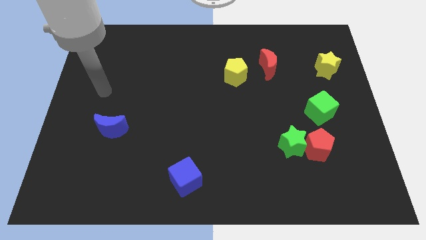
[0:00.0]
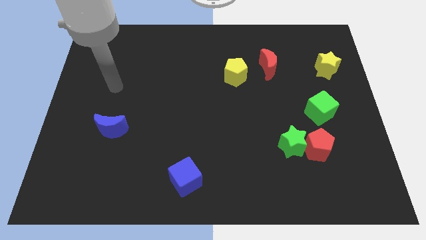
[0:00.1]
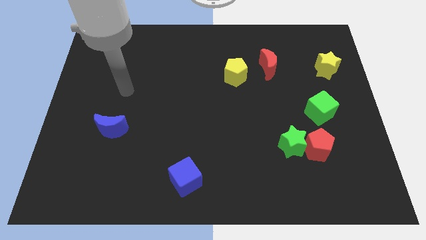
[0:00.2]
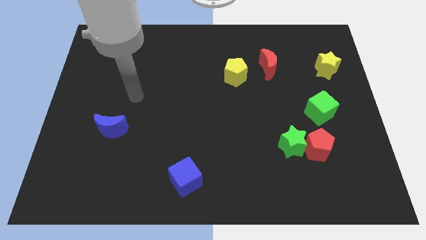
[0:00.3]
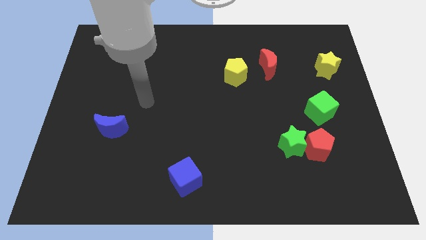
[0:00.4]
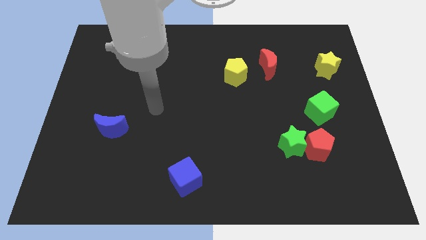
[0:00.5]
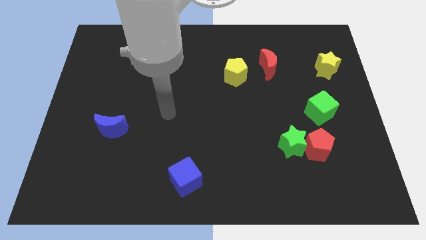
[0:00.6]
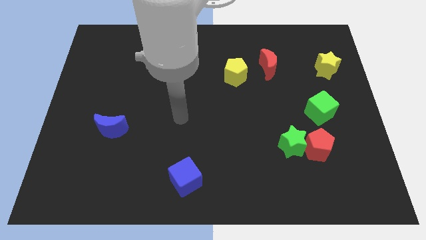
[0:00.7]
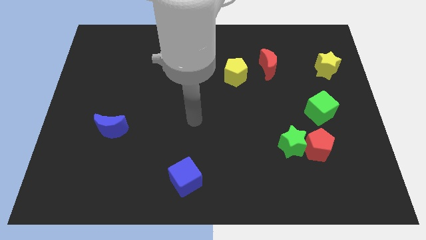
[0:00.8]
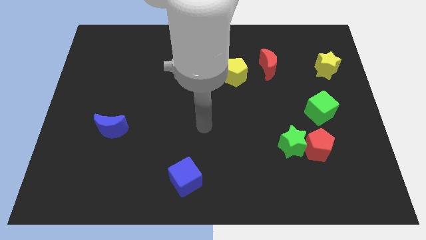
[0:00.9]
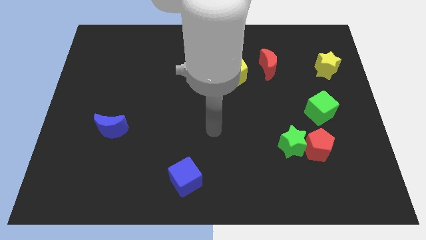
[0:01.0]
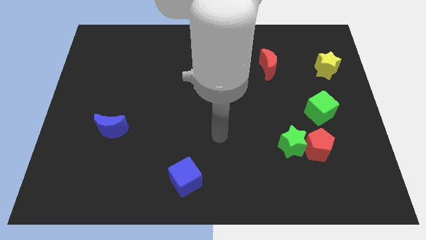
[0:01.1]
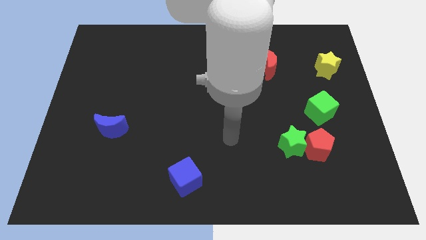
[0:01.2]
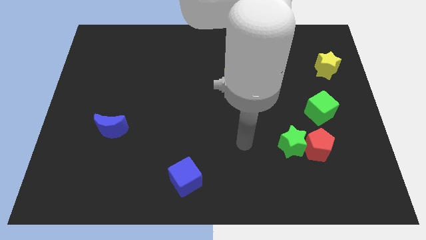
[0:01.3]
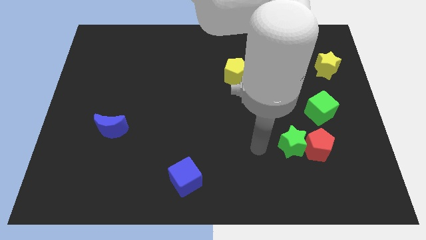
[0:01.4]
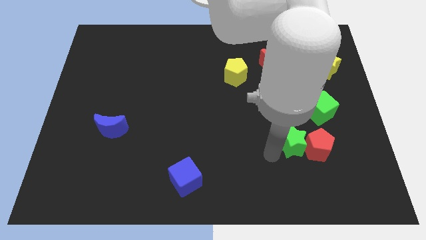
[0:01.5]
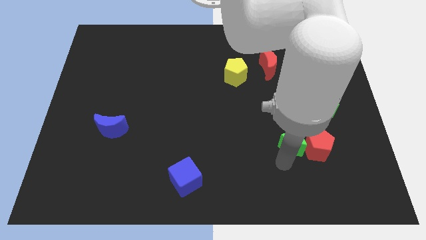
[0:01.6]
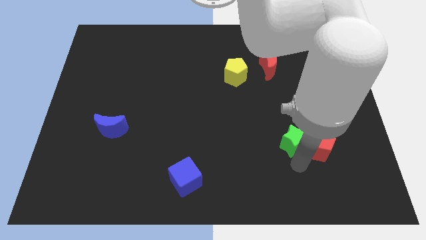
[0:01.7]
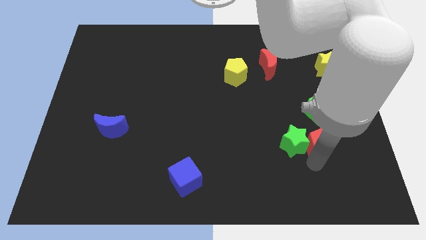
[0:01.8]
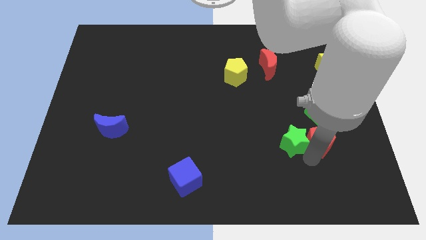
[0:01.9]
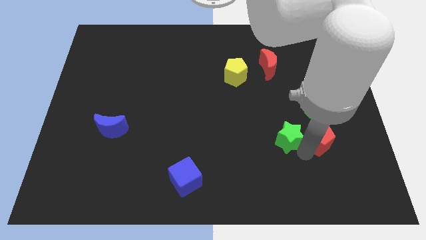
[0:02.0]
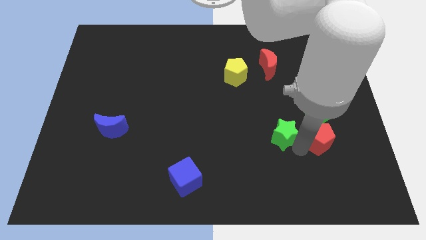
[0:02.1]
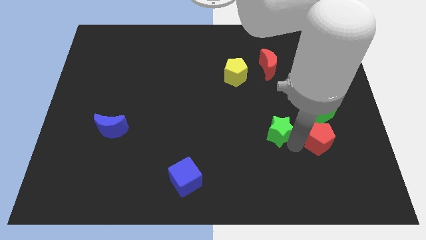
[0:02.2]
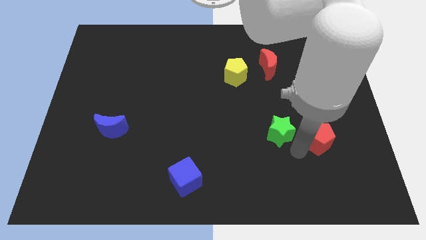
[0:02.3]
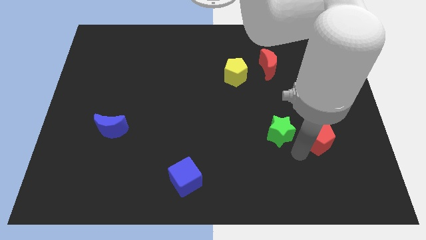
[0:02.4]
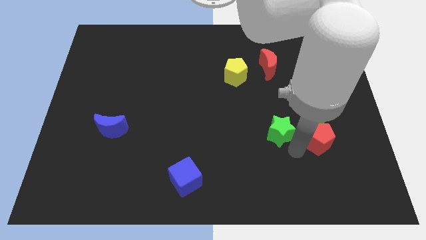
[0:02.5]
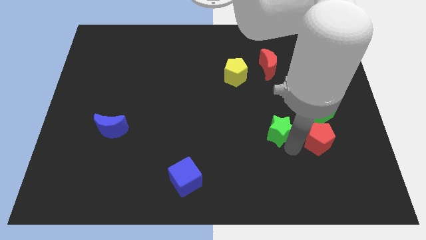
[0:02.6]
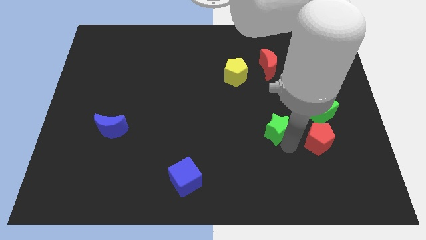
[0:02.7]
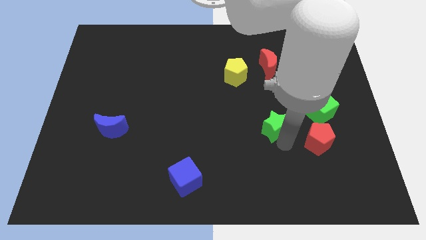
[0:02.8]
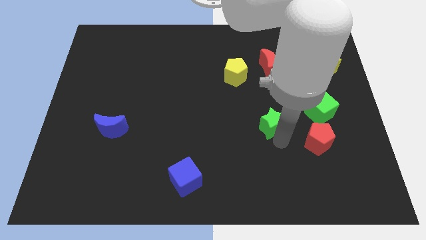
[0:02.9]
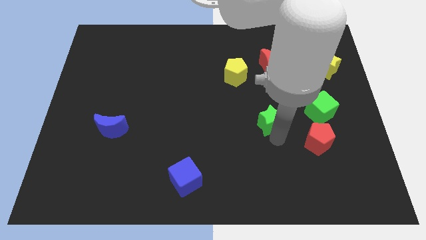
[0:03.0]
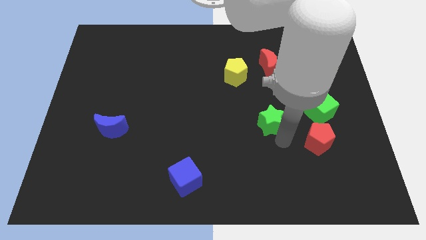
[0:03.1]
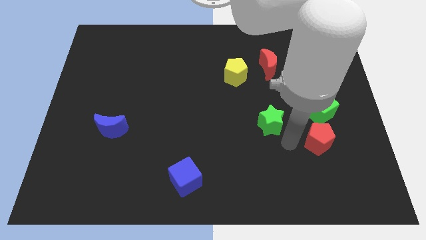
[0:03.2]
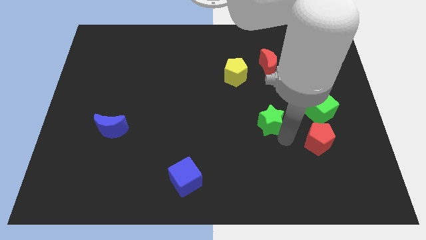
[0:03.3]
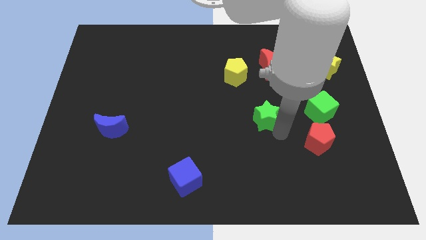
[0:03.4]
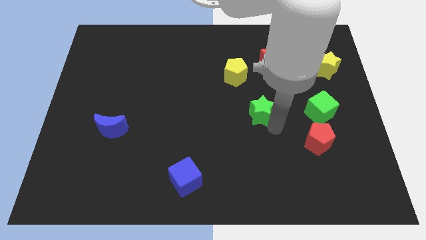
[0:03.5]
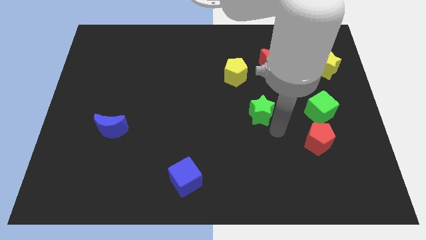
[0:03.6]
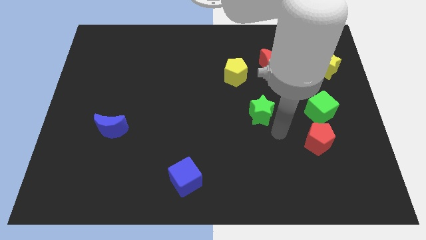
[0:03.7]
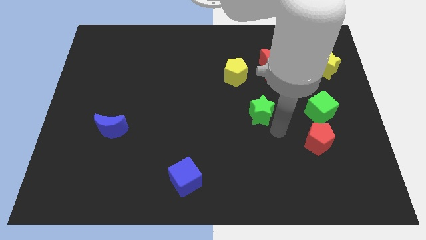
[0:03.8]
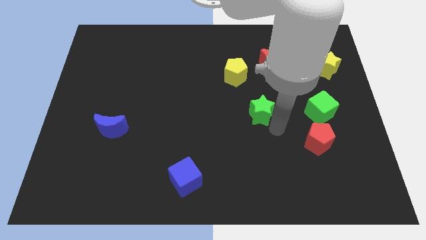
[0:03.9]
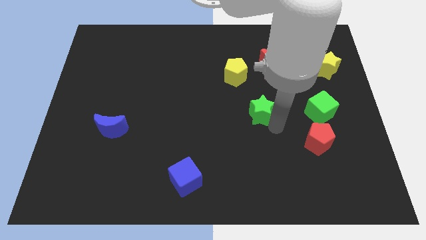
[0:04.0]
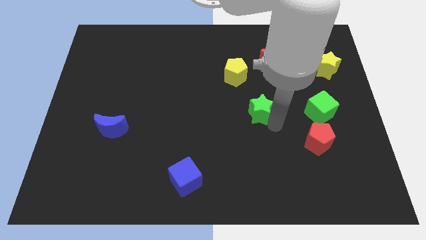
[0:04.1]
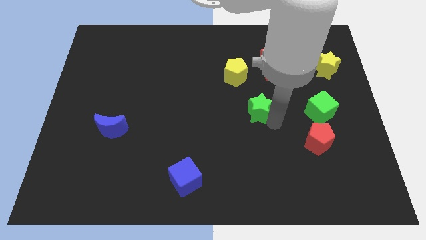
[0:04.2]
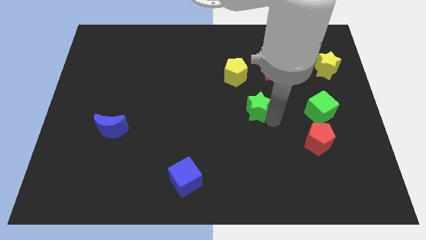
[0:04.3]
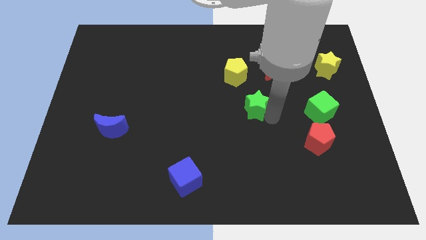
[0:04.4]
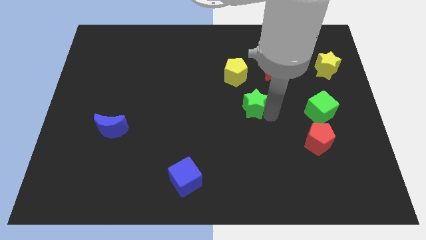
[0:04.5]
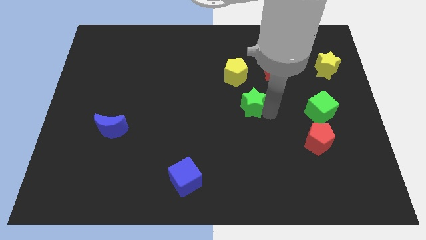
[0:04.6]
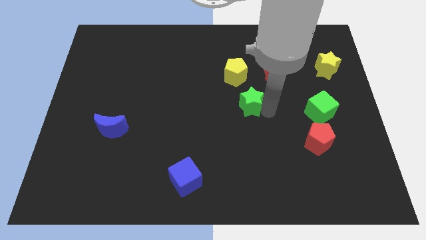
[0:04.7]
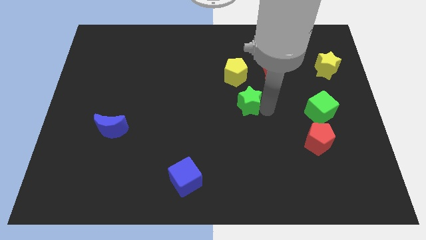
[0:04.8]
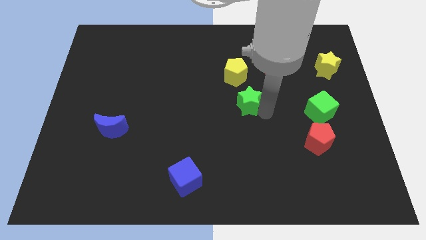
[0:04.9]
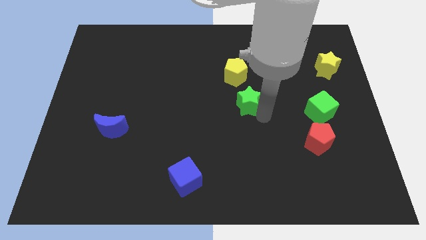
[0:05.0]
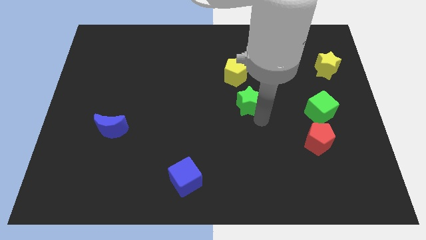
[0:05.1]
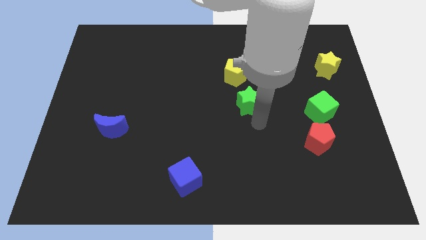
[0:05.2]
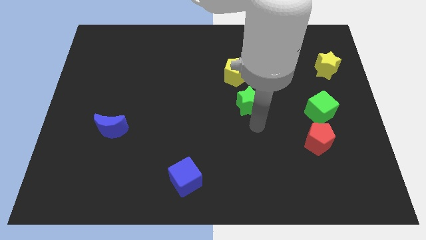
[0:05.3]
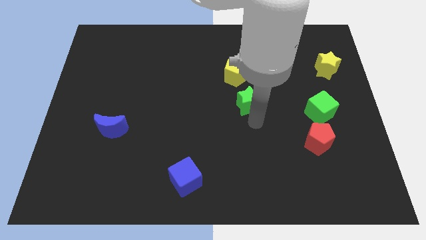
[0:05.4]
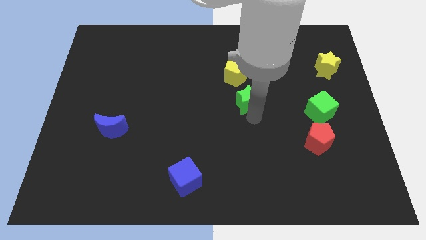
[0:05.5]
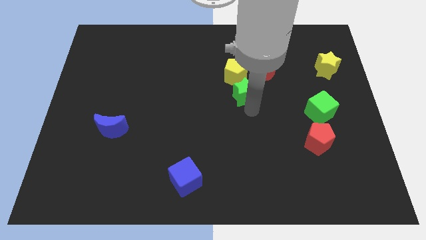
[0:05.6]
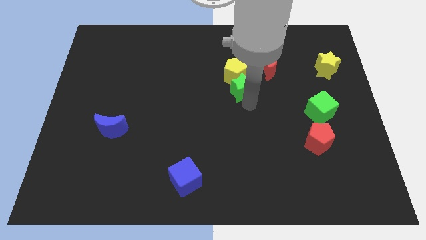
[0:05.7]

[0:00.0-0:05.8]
move the green star close to the yellow pentagon

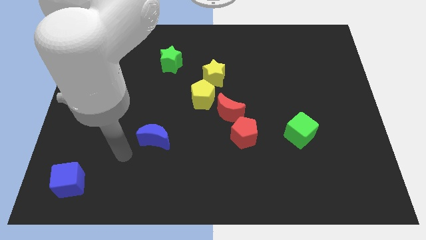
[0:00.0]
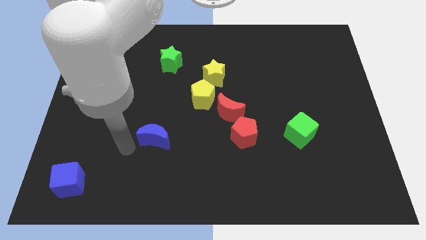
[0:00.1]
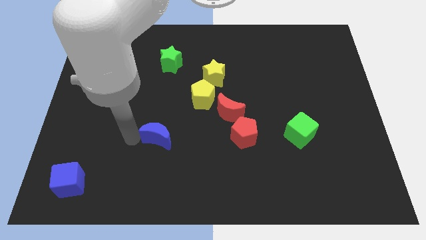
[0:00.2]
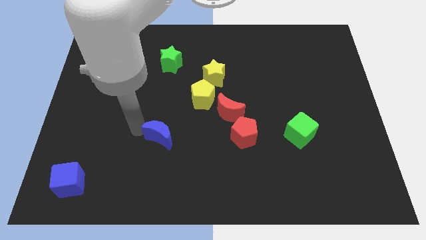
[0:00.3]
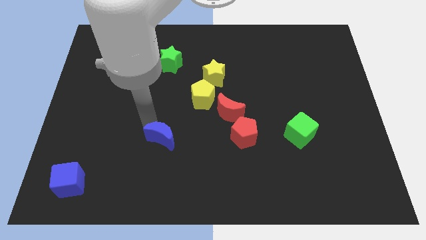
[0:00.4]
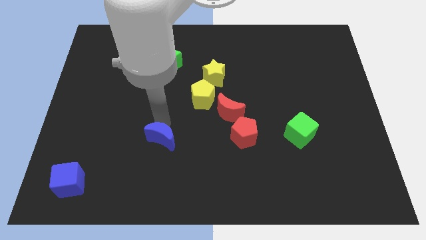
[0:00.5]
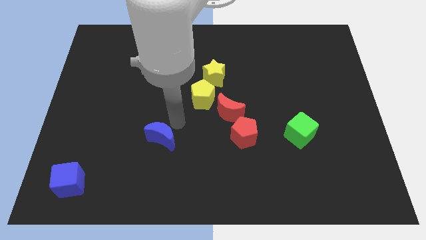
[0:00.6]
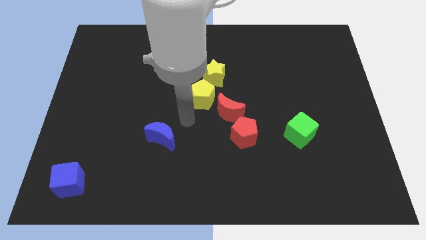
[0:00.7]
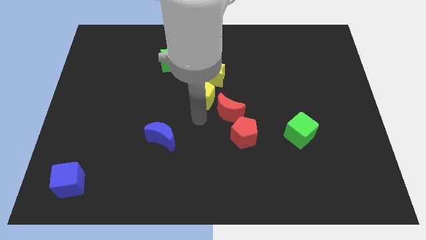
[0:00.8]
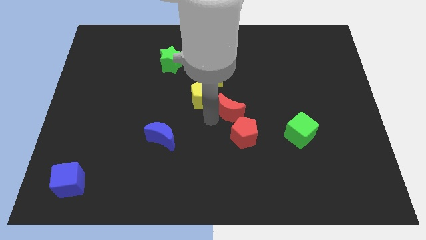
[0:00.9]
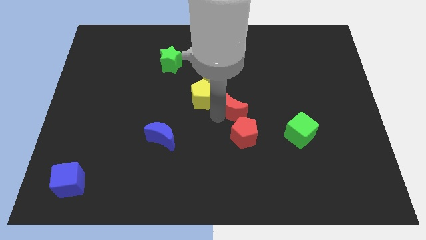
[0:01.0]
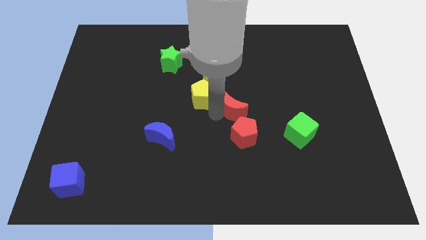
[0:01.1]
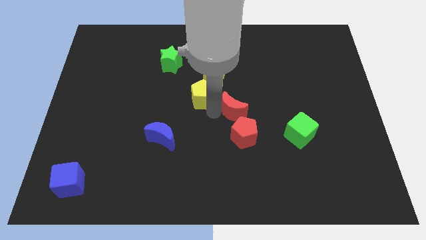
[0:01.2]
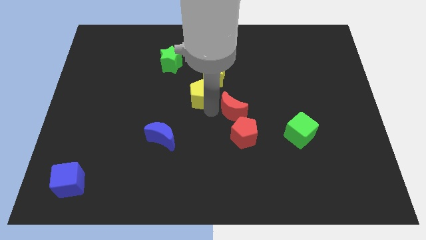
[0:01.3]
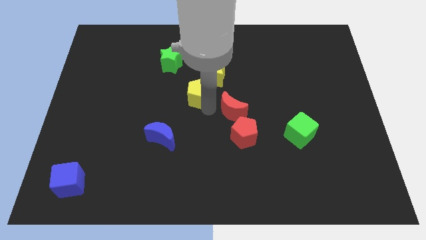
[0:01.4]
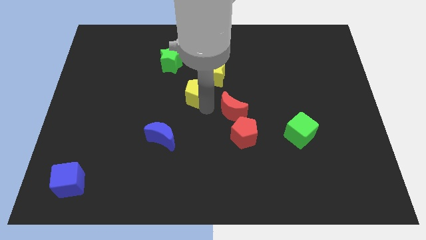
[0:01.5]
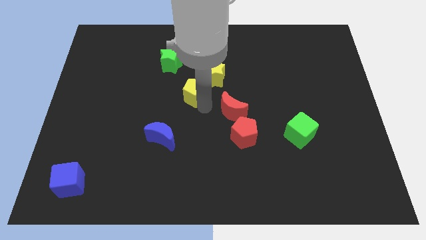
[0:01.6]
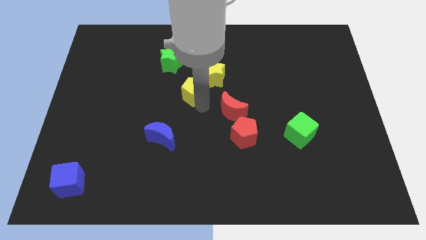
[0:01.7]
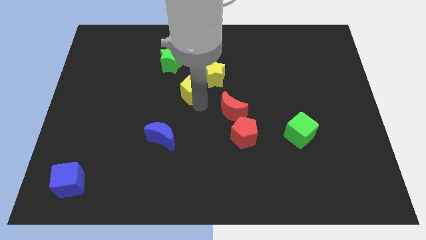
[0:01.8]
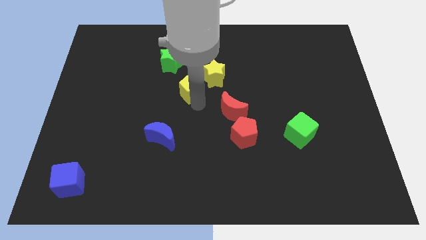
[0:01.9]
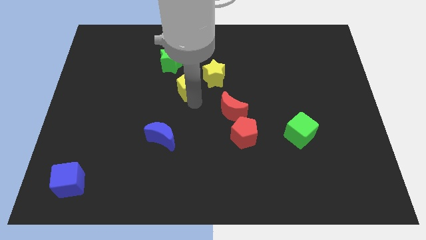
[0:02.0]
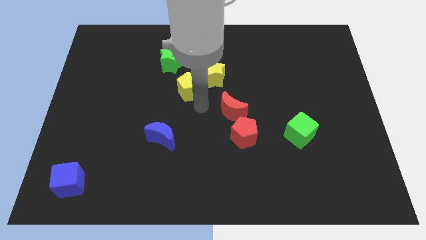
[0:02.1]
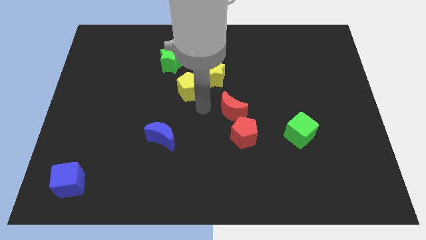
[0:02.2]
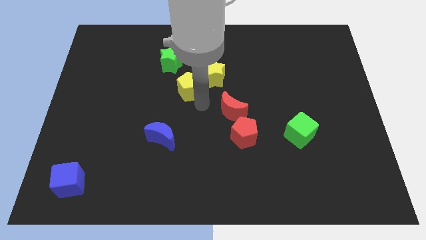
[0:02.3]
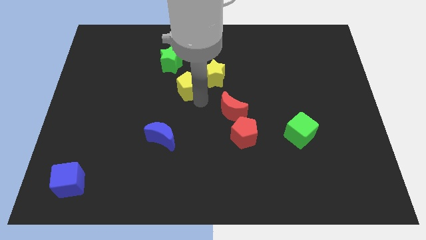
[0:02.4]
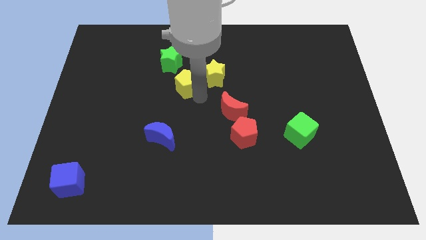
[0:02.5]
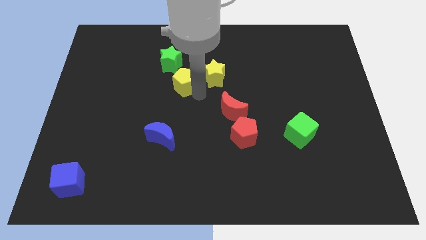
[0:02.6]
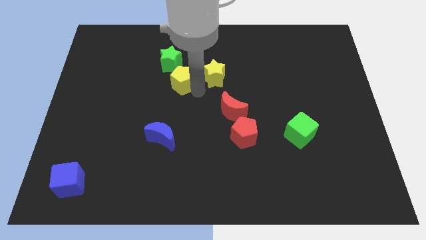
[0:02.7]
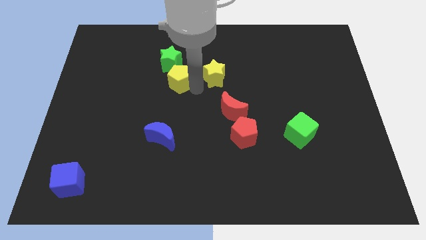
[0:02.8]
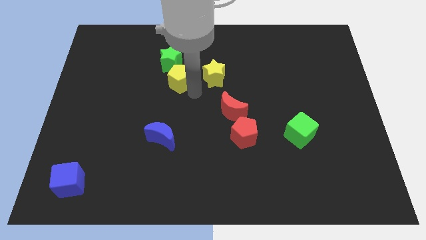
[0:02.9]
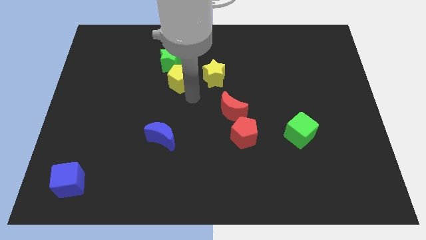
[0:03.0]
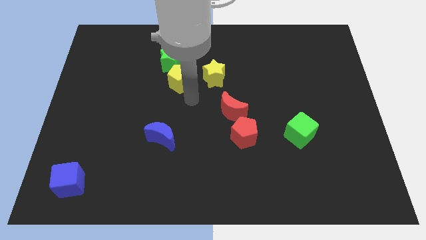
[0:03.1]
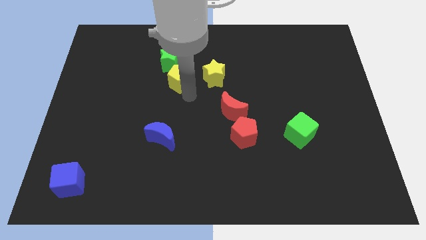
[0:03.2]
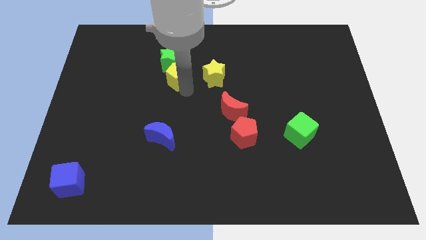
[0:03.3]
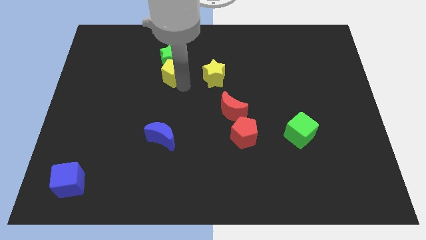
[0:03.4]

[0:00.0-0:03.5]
push the yellow pentagon close to the green star
